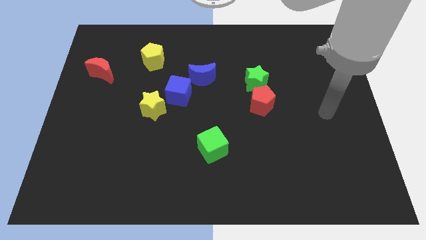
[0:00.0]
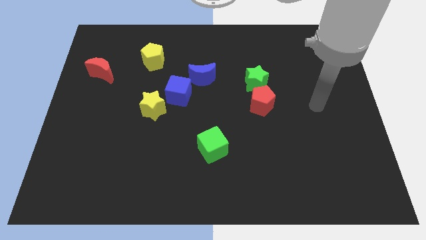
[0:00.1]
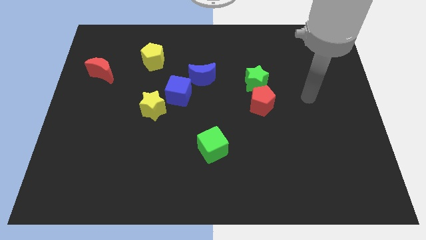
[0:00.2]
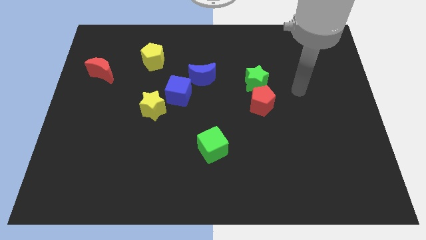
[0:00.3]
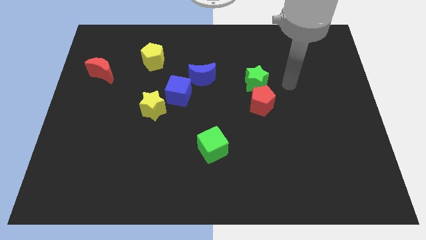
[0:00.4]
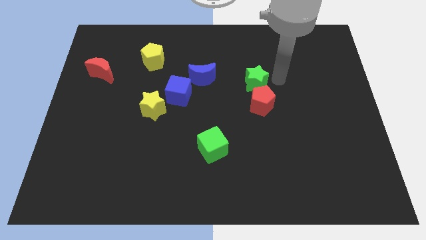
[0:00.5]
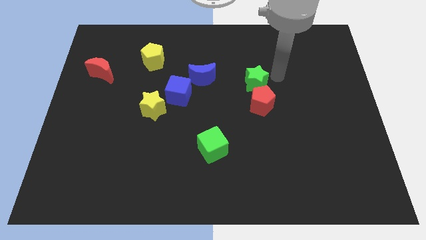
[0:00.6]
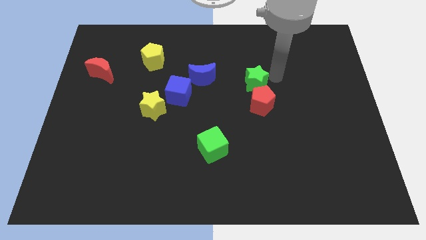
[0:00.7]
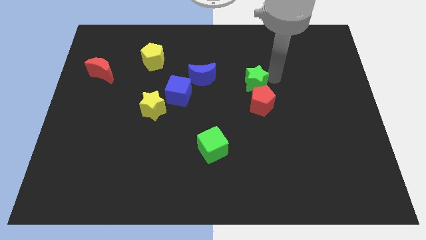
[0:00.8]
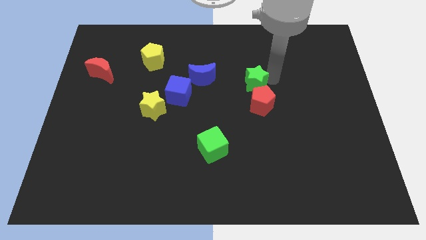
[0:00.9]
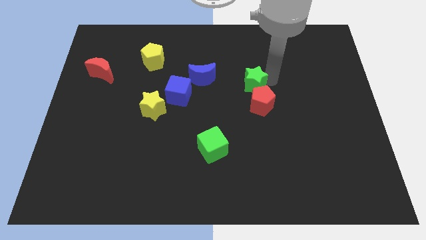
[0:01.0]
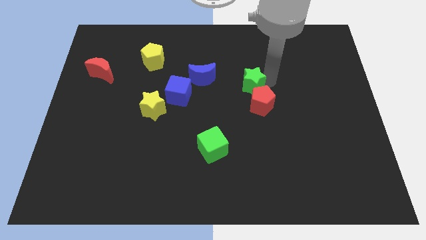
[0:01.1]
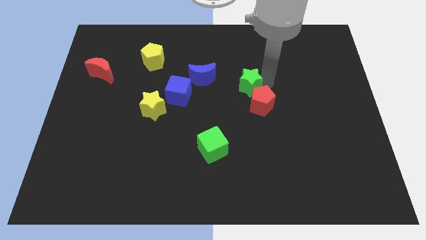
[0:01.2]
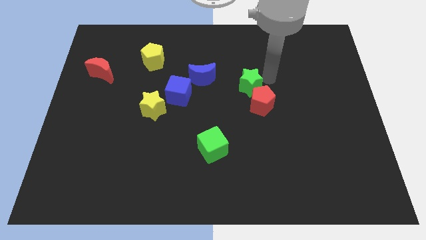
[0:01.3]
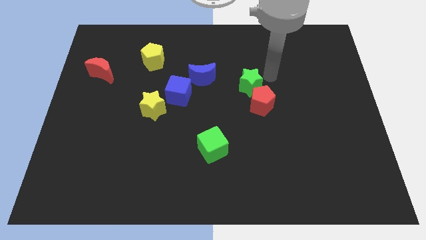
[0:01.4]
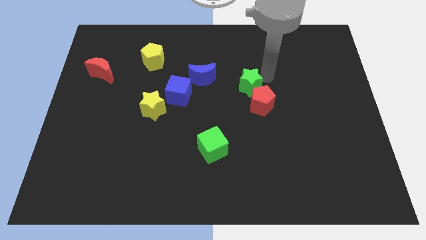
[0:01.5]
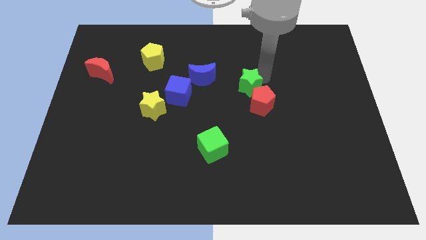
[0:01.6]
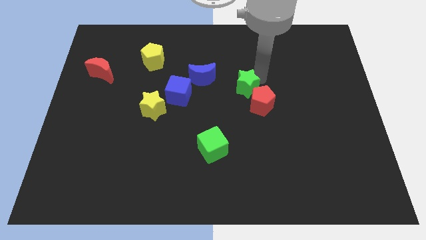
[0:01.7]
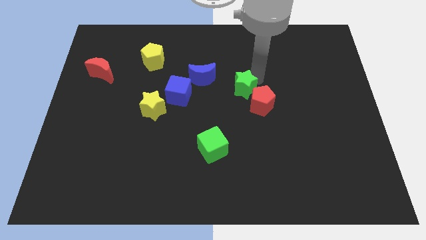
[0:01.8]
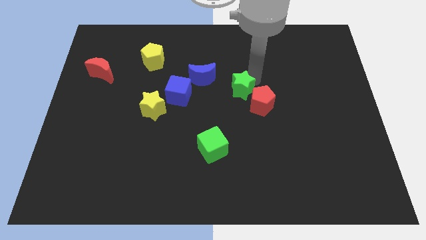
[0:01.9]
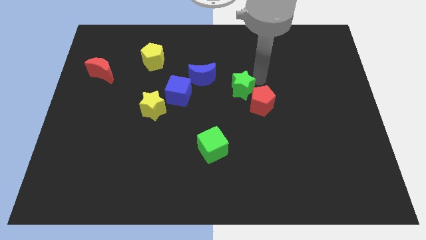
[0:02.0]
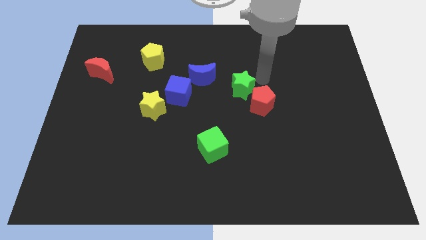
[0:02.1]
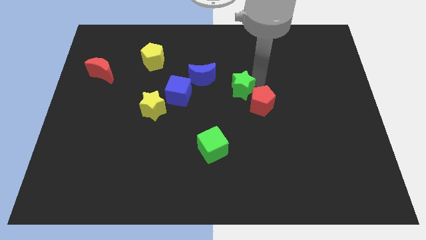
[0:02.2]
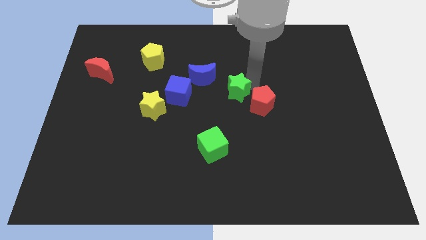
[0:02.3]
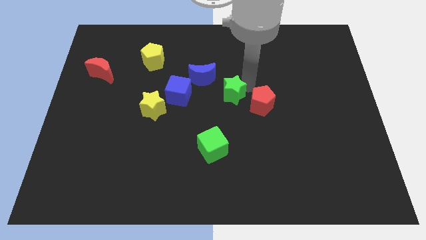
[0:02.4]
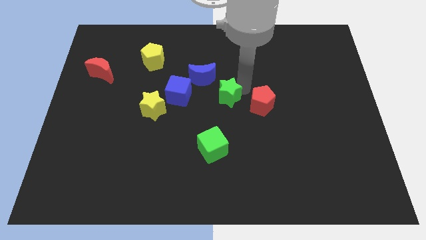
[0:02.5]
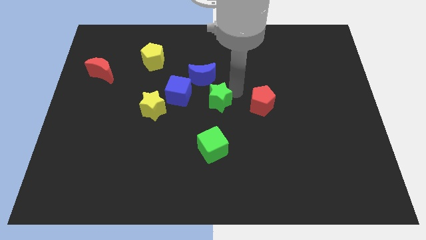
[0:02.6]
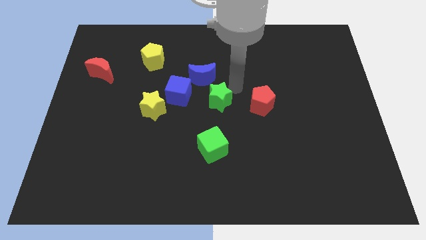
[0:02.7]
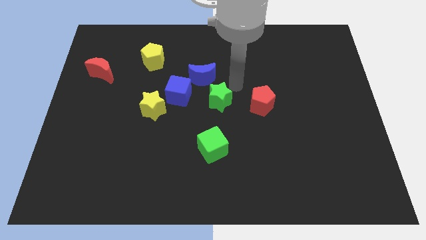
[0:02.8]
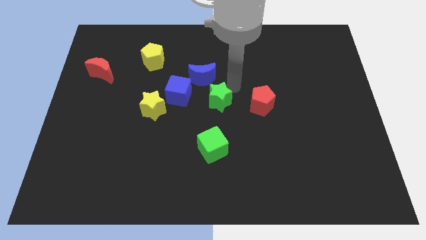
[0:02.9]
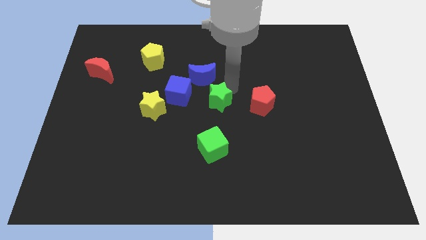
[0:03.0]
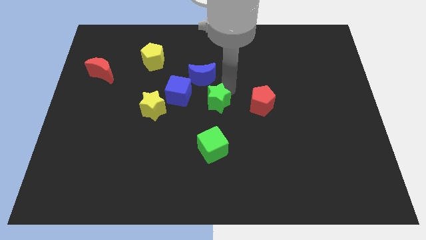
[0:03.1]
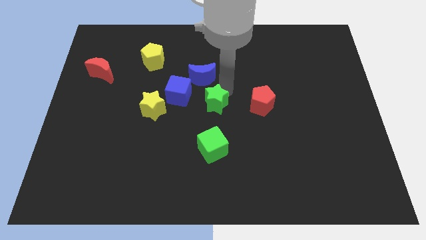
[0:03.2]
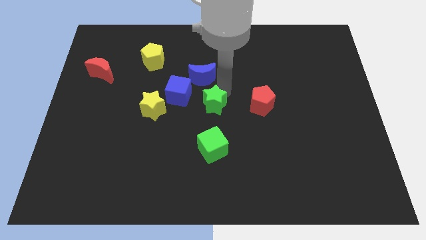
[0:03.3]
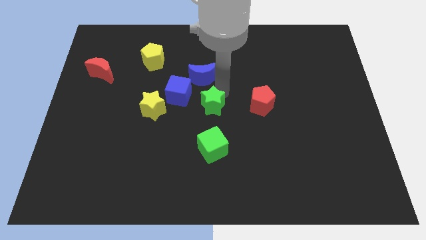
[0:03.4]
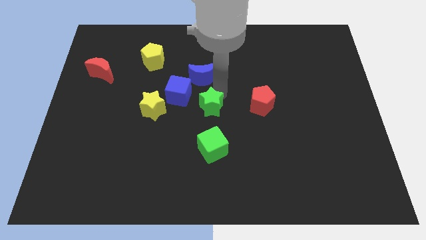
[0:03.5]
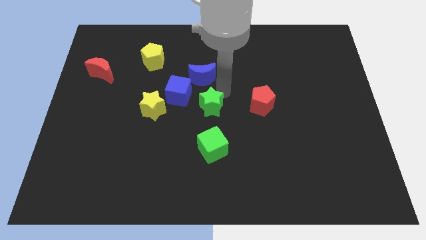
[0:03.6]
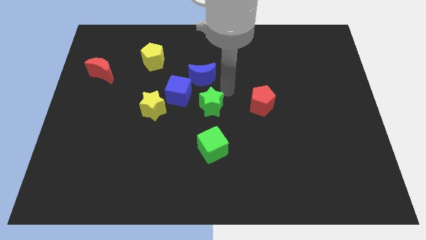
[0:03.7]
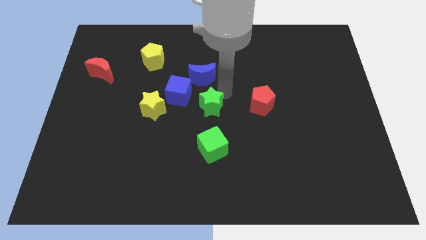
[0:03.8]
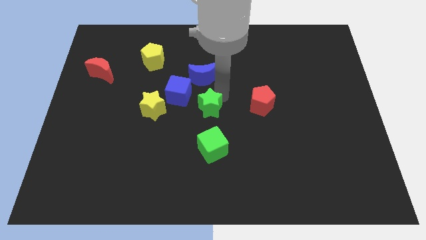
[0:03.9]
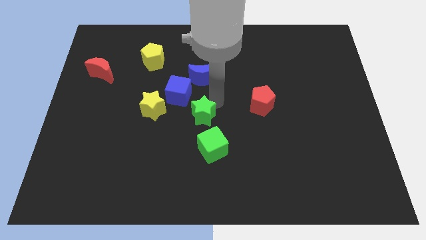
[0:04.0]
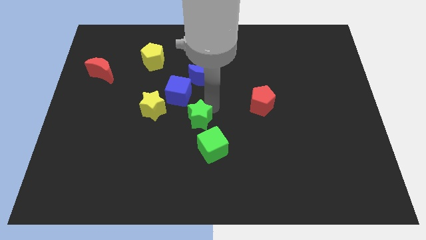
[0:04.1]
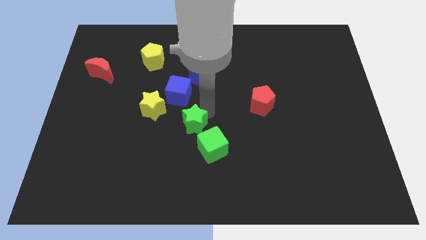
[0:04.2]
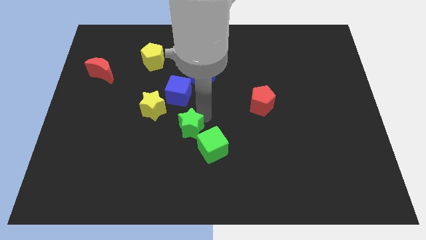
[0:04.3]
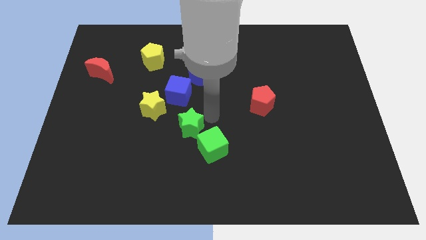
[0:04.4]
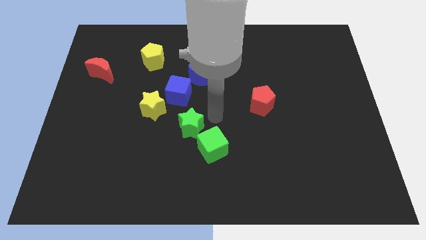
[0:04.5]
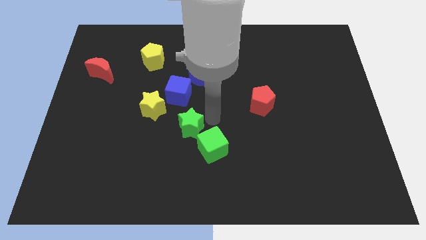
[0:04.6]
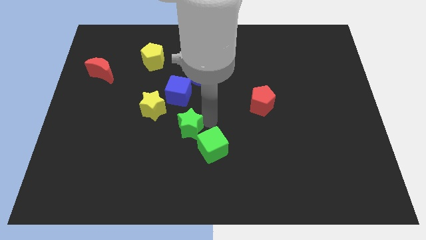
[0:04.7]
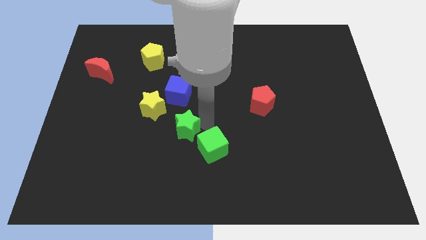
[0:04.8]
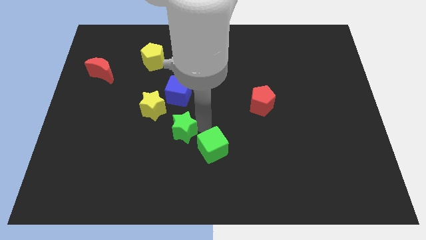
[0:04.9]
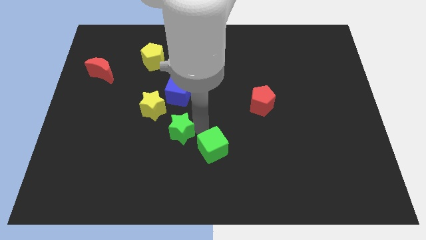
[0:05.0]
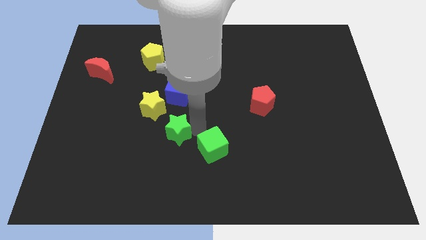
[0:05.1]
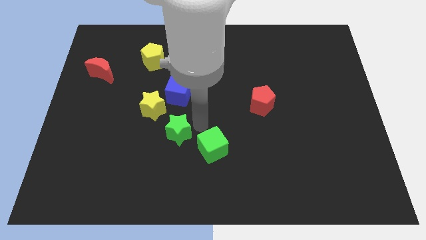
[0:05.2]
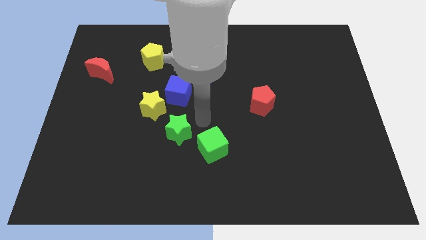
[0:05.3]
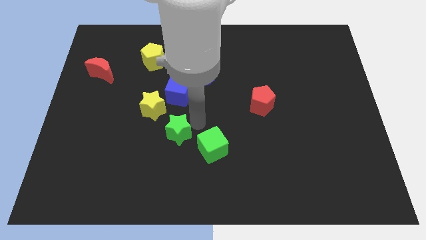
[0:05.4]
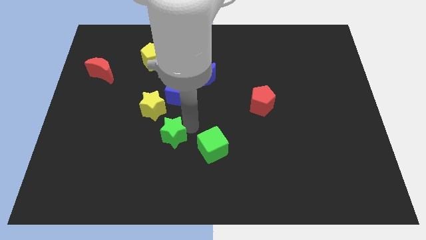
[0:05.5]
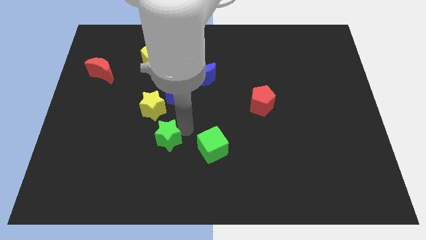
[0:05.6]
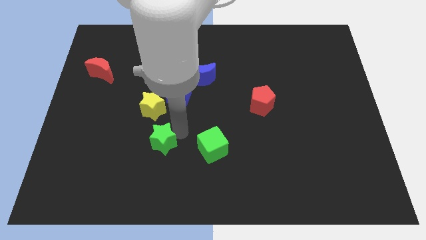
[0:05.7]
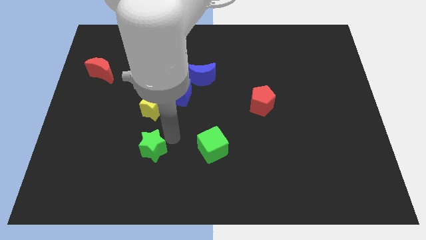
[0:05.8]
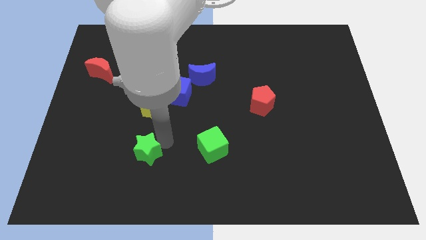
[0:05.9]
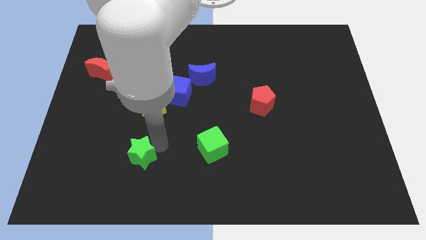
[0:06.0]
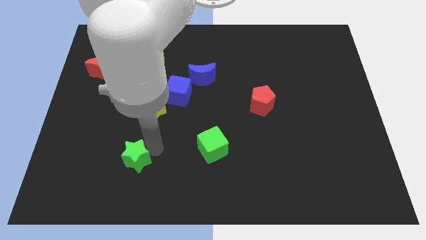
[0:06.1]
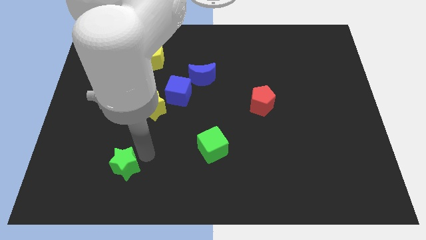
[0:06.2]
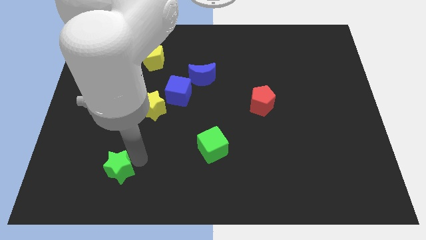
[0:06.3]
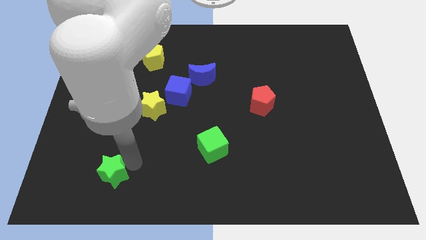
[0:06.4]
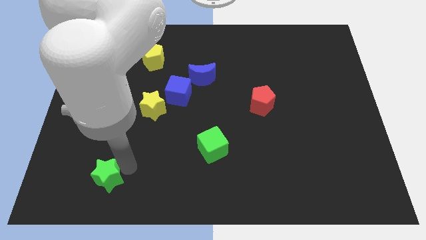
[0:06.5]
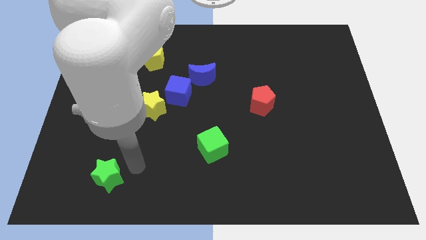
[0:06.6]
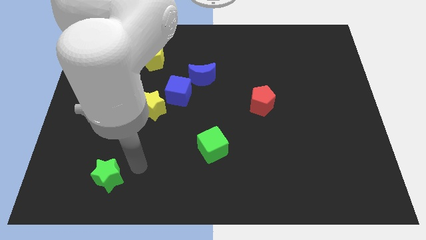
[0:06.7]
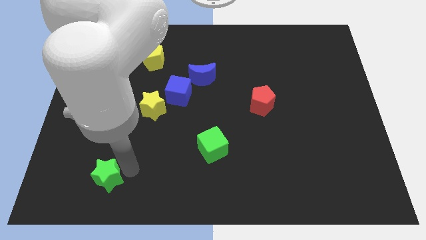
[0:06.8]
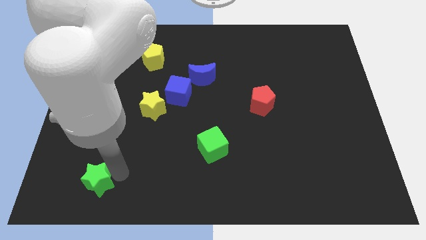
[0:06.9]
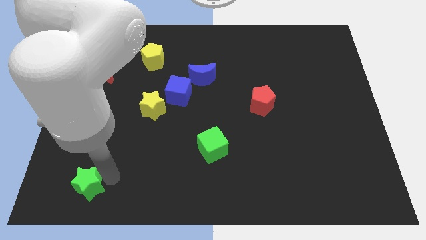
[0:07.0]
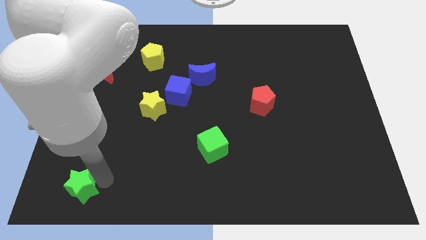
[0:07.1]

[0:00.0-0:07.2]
move the green star to the bottom left

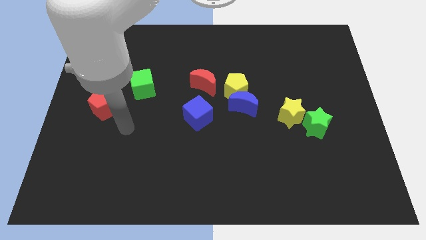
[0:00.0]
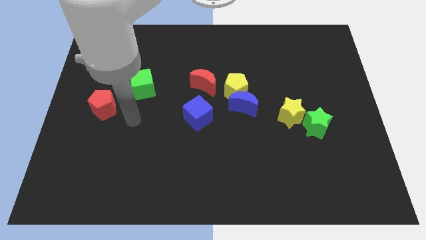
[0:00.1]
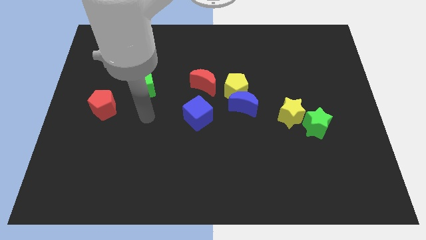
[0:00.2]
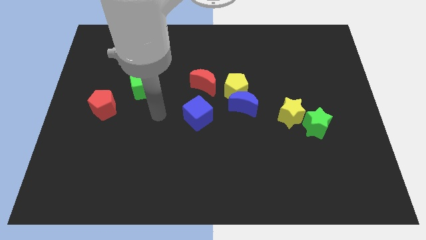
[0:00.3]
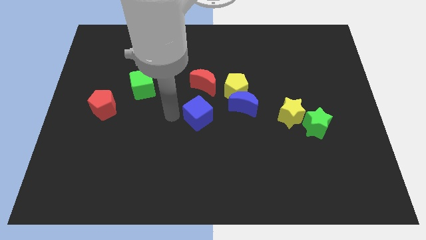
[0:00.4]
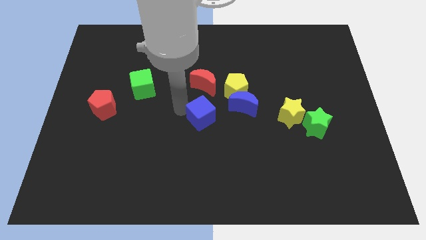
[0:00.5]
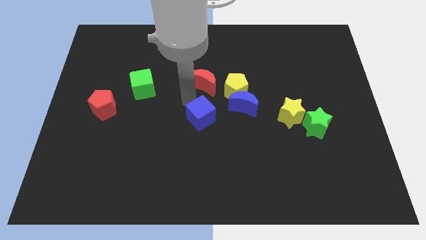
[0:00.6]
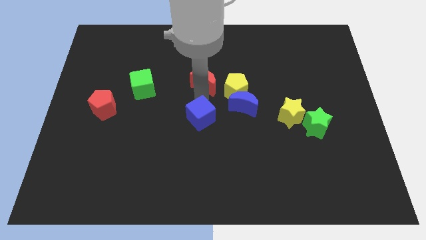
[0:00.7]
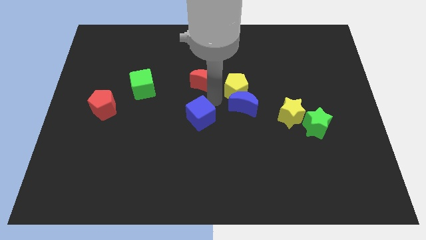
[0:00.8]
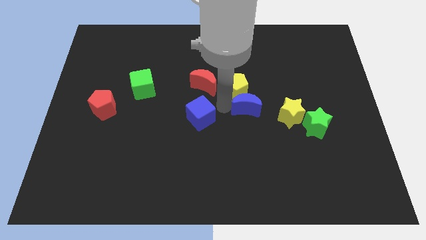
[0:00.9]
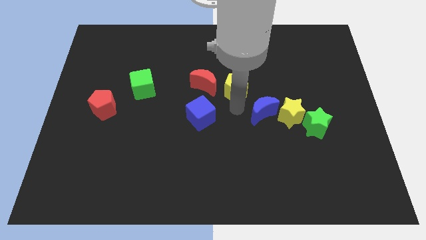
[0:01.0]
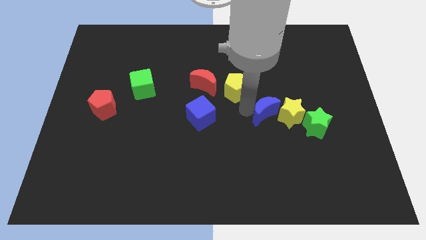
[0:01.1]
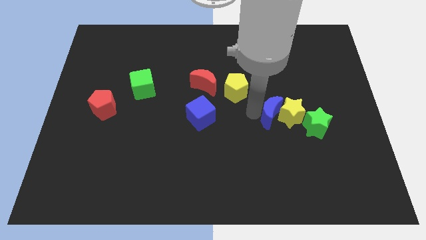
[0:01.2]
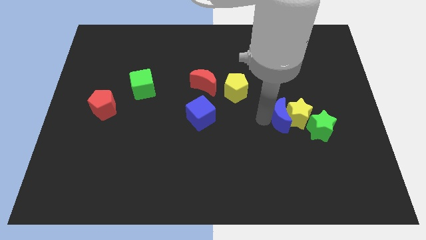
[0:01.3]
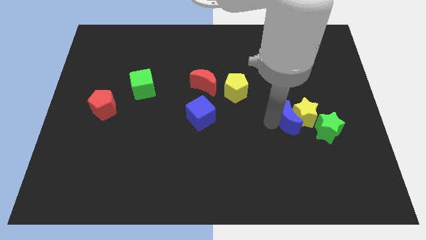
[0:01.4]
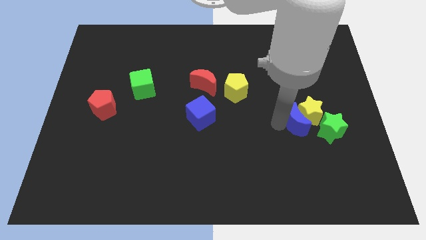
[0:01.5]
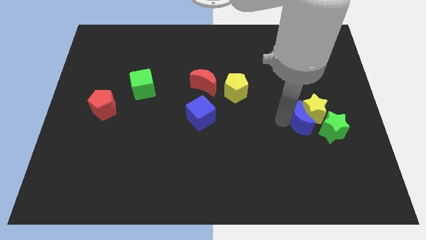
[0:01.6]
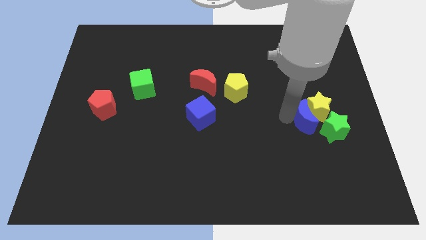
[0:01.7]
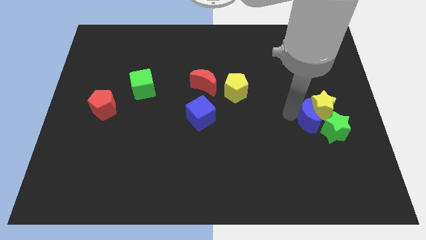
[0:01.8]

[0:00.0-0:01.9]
put the yellow star to the right side of the board
